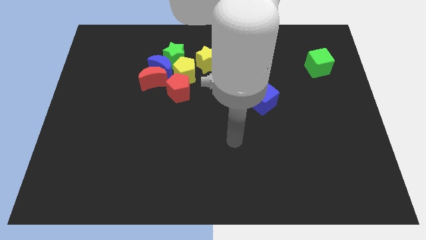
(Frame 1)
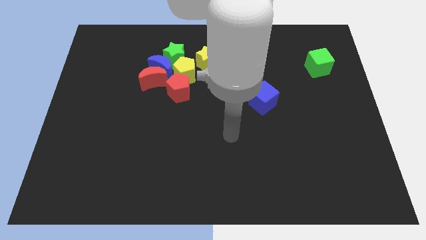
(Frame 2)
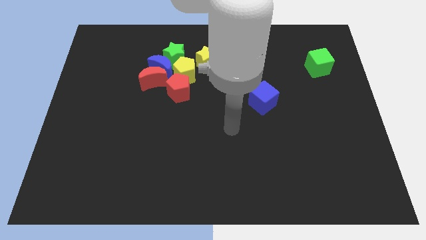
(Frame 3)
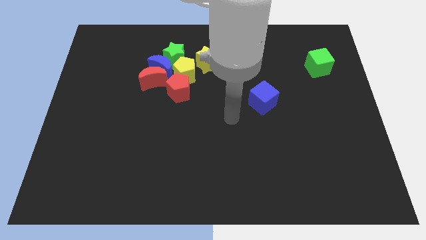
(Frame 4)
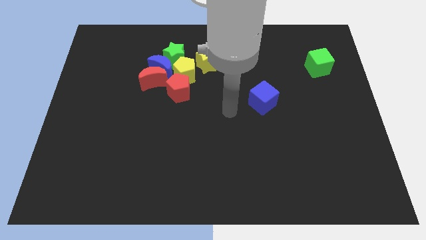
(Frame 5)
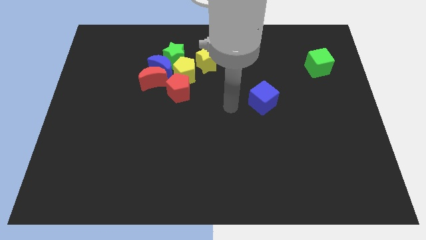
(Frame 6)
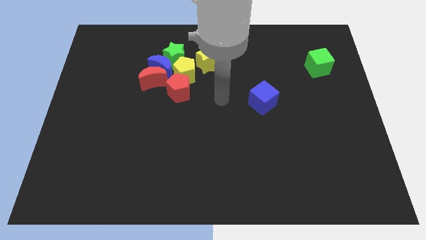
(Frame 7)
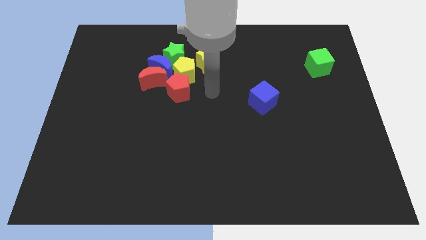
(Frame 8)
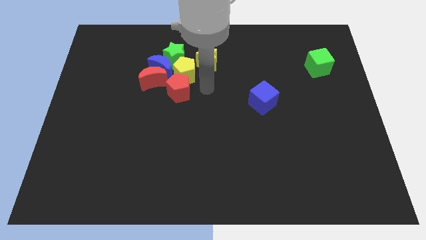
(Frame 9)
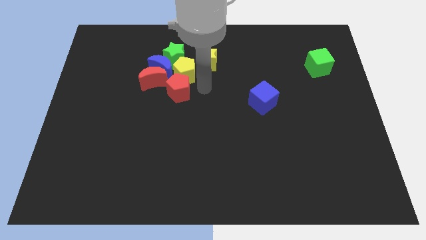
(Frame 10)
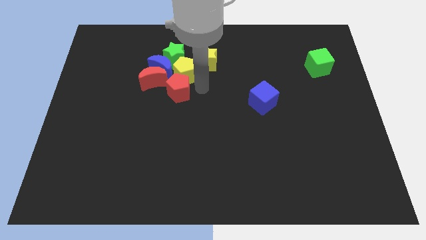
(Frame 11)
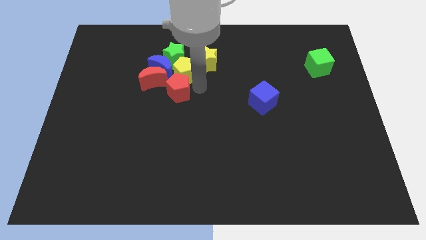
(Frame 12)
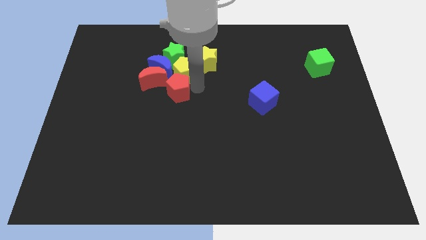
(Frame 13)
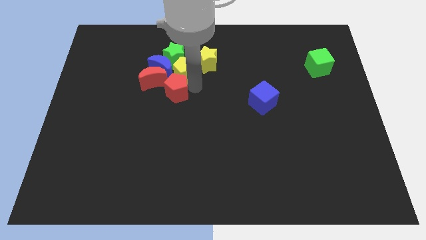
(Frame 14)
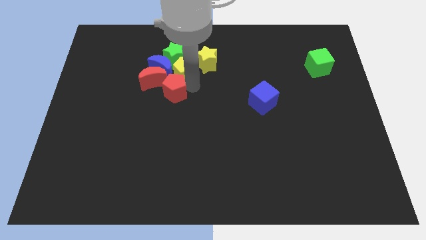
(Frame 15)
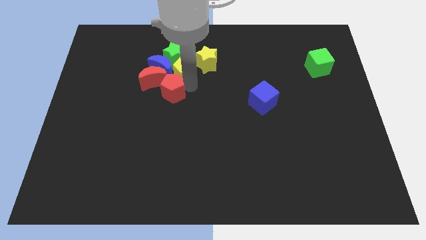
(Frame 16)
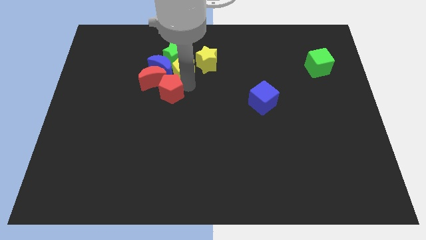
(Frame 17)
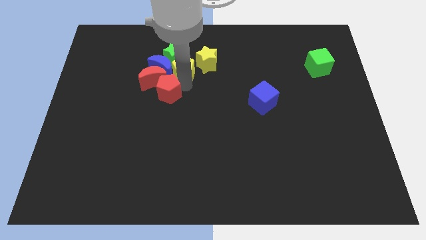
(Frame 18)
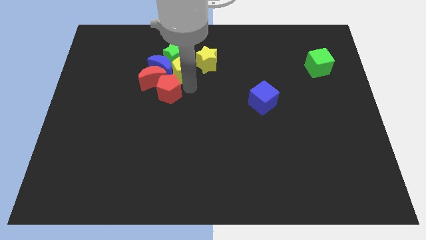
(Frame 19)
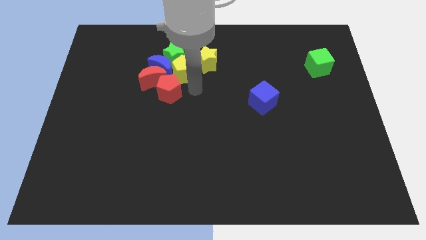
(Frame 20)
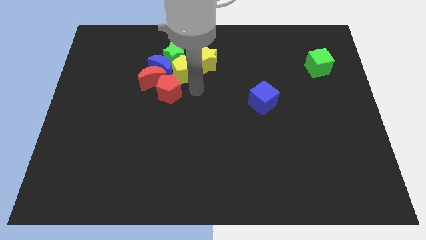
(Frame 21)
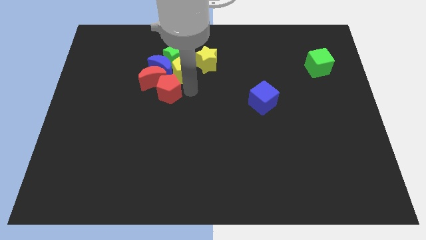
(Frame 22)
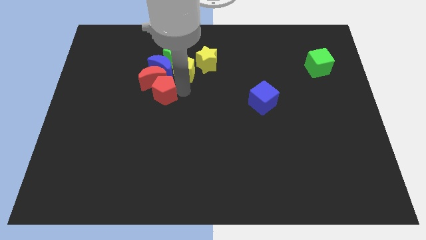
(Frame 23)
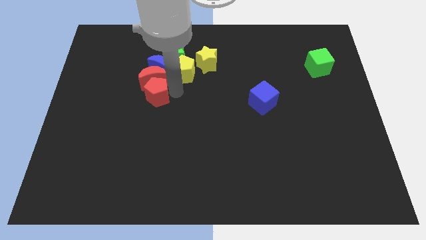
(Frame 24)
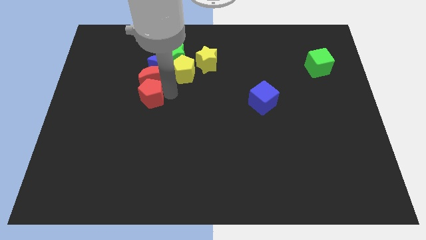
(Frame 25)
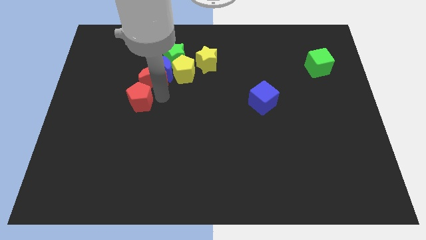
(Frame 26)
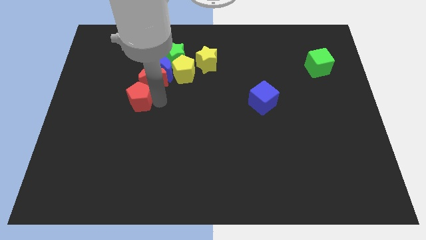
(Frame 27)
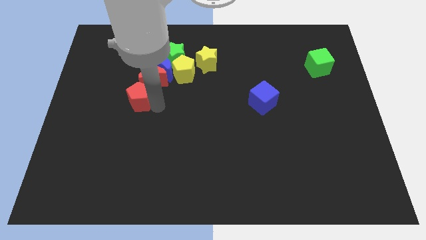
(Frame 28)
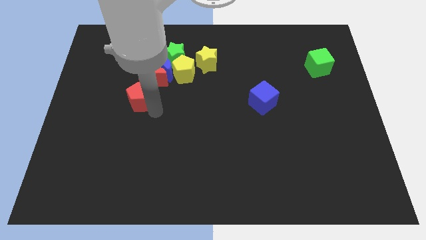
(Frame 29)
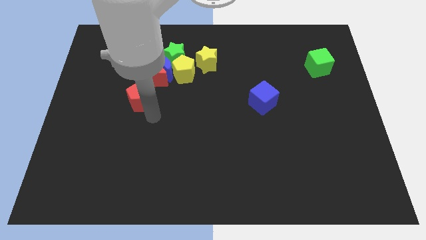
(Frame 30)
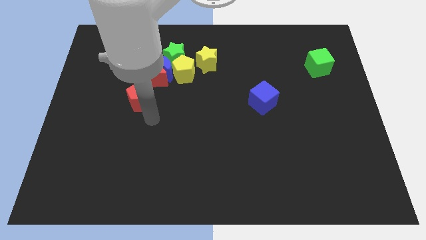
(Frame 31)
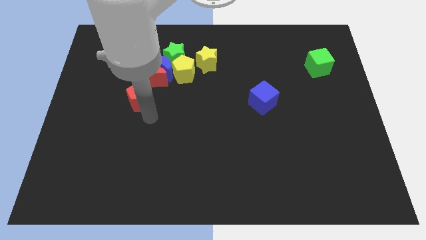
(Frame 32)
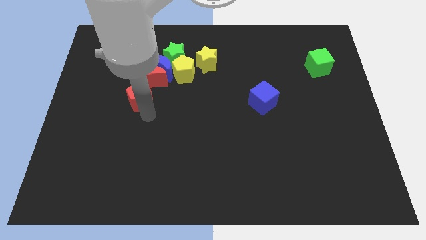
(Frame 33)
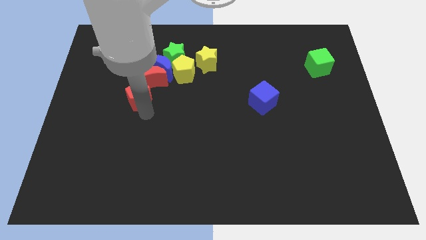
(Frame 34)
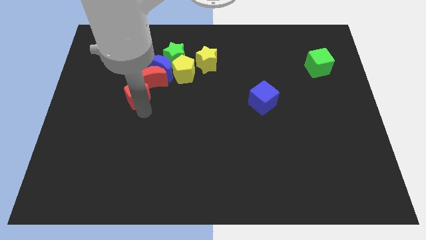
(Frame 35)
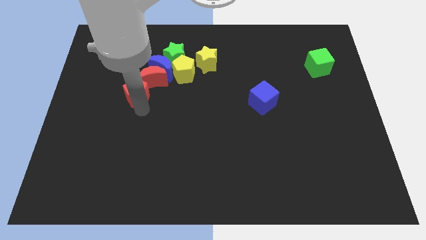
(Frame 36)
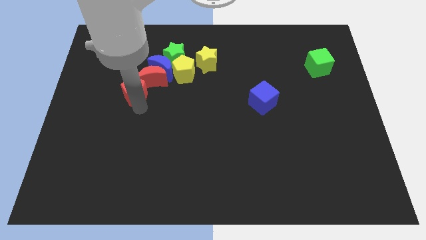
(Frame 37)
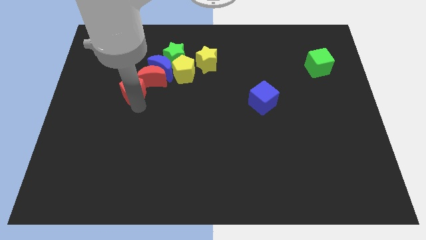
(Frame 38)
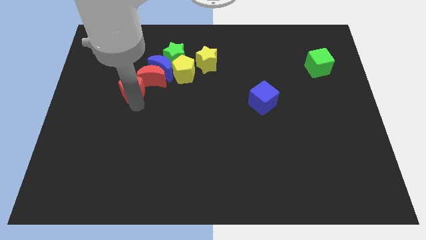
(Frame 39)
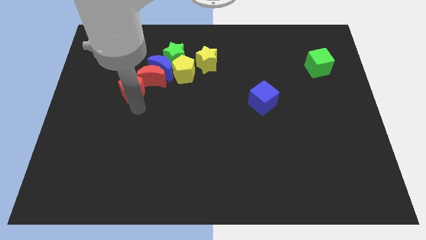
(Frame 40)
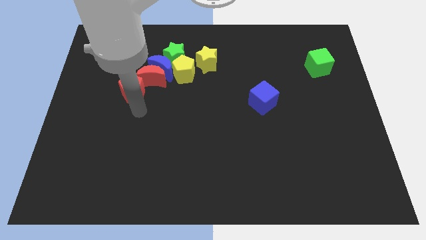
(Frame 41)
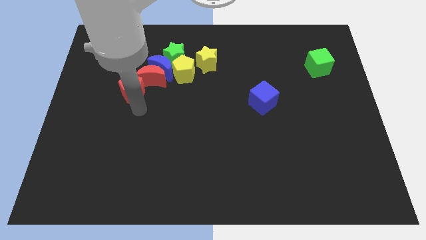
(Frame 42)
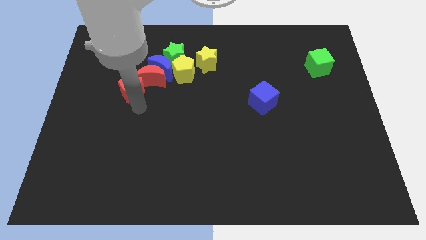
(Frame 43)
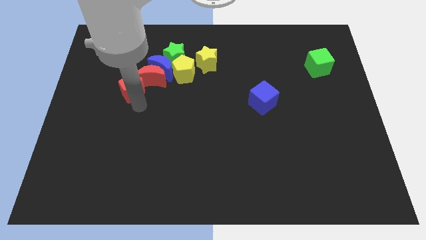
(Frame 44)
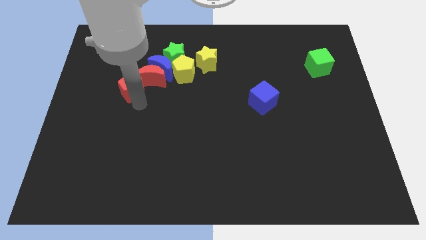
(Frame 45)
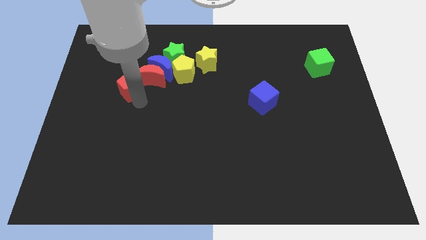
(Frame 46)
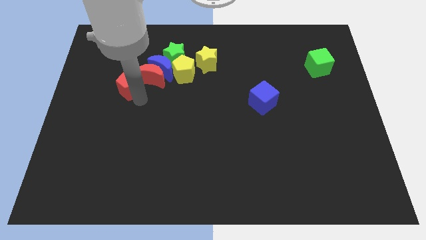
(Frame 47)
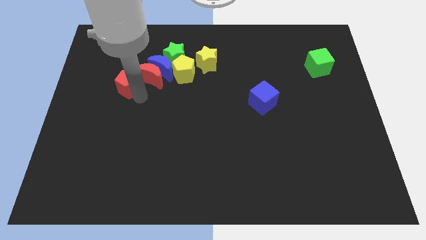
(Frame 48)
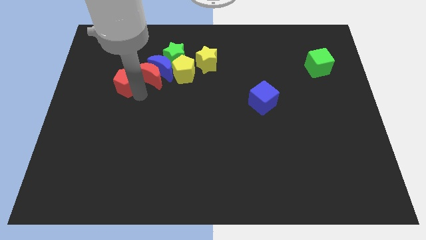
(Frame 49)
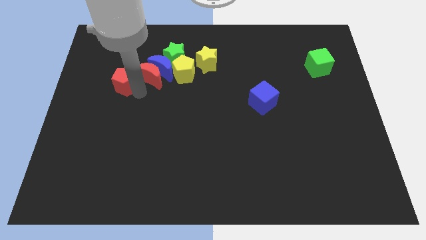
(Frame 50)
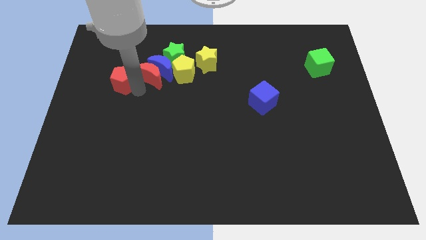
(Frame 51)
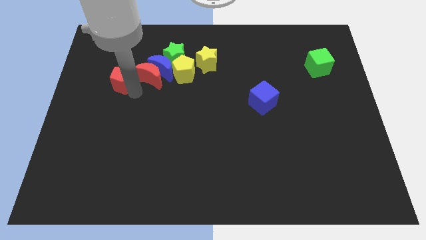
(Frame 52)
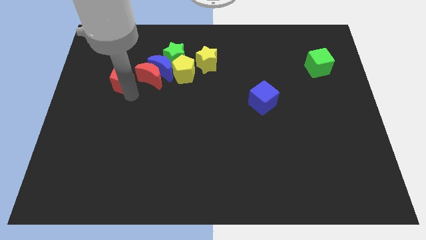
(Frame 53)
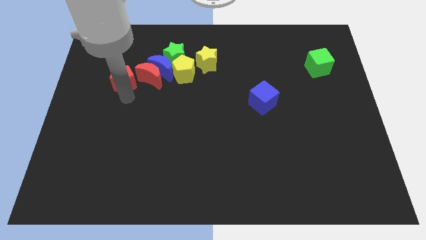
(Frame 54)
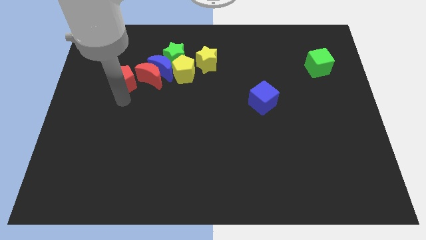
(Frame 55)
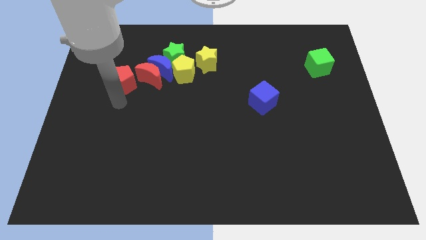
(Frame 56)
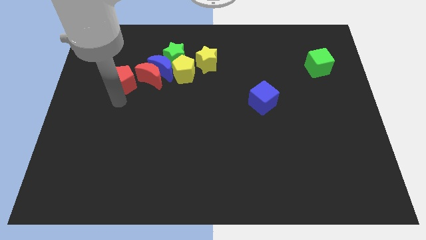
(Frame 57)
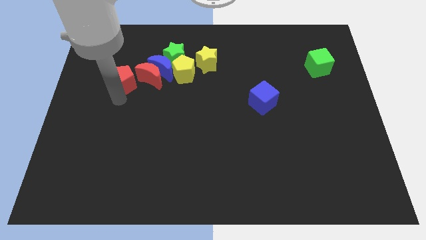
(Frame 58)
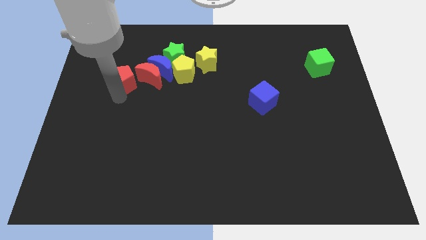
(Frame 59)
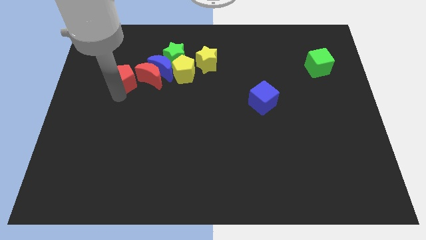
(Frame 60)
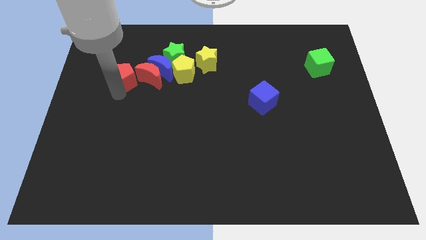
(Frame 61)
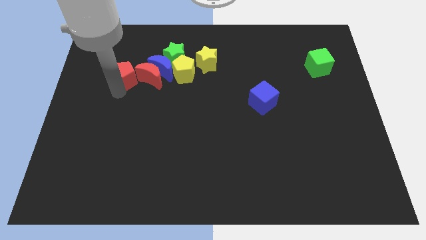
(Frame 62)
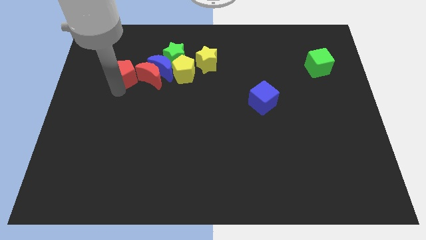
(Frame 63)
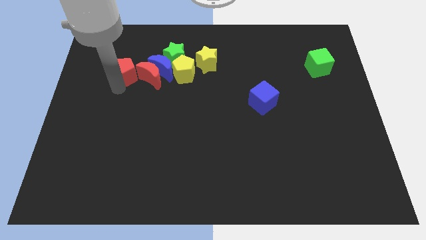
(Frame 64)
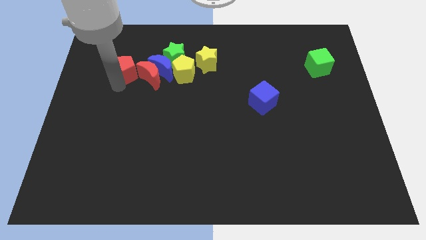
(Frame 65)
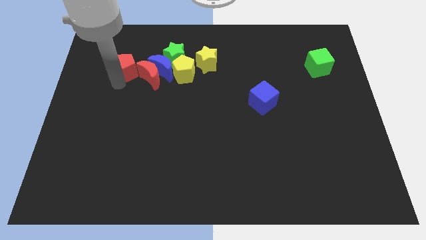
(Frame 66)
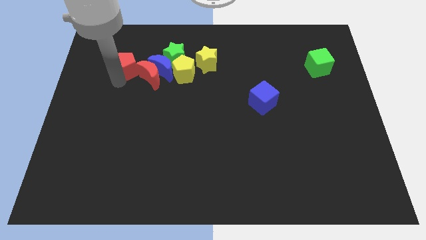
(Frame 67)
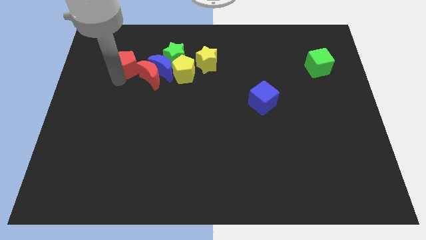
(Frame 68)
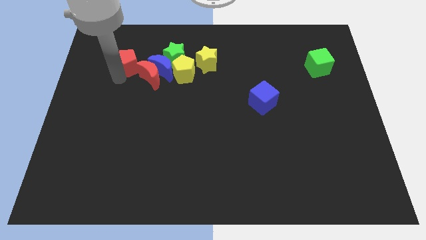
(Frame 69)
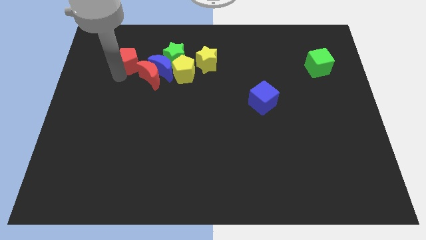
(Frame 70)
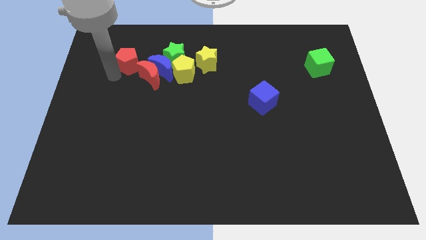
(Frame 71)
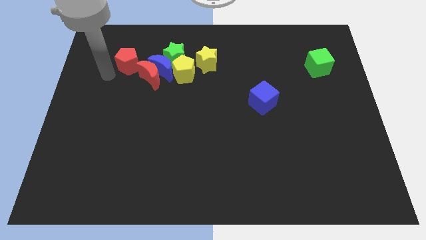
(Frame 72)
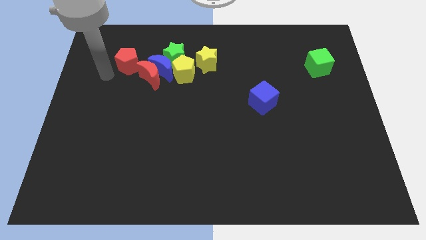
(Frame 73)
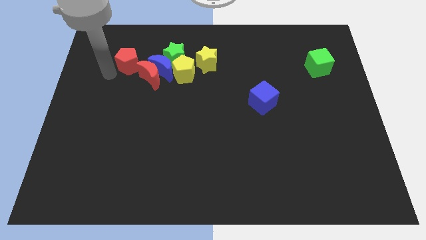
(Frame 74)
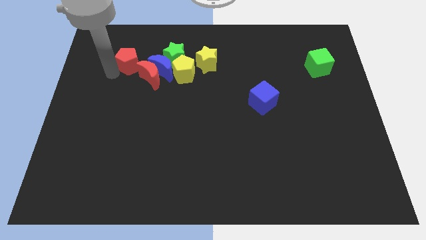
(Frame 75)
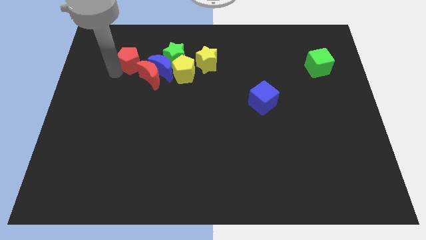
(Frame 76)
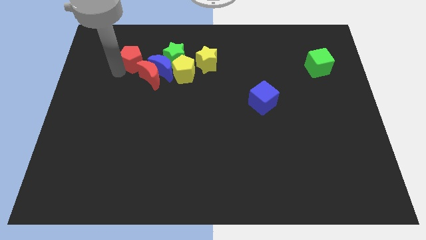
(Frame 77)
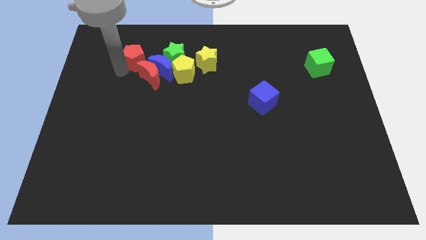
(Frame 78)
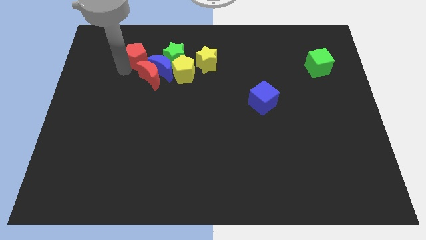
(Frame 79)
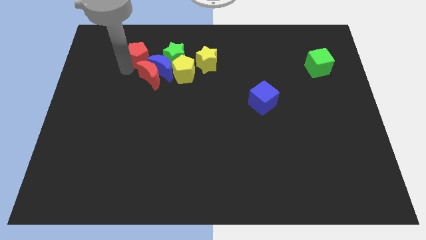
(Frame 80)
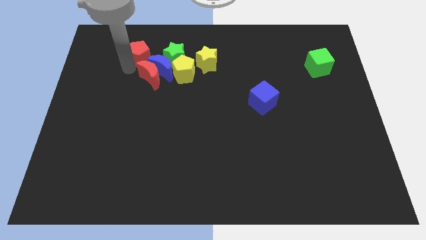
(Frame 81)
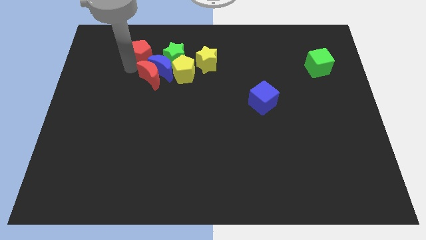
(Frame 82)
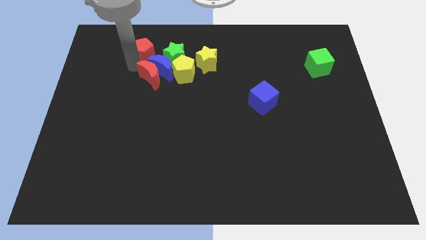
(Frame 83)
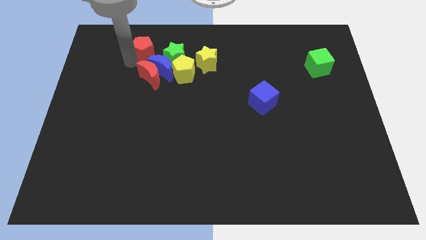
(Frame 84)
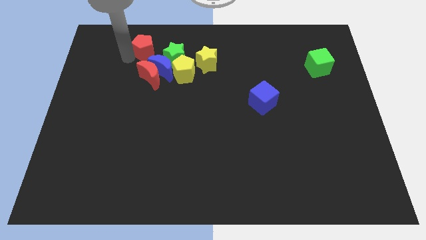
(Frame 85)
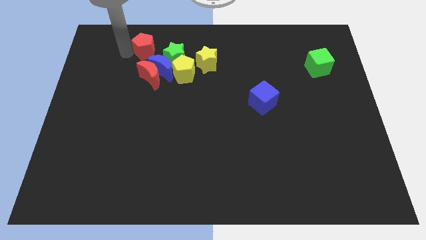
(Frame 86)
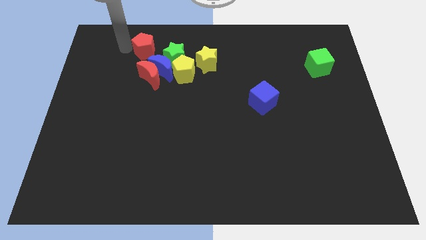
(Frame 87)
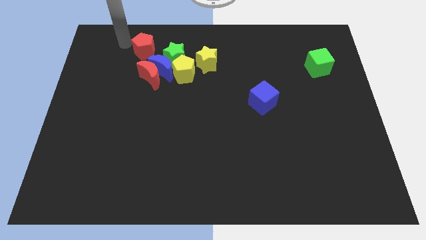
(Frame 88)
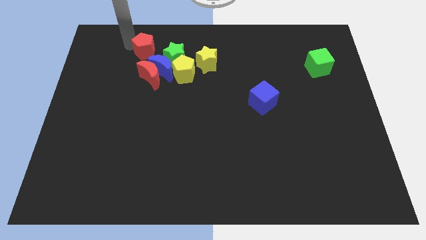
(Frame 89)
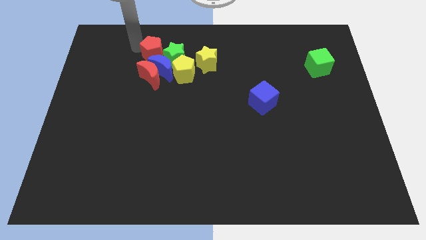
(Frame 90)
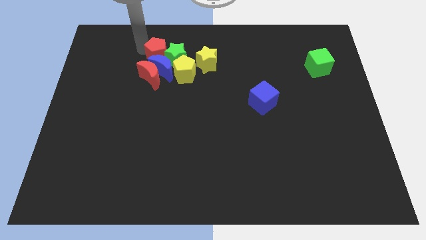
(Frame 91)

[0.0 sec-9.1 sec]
move the red pentagon towards the green star
